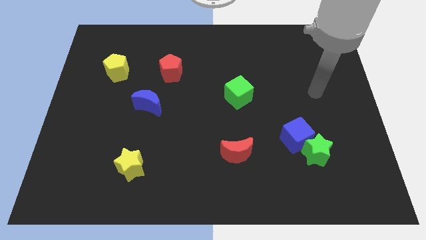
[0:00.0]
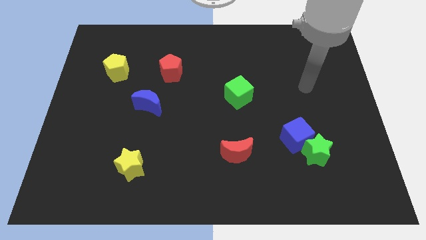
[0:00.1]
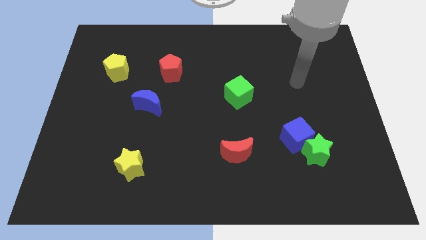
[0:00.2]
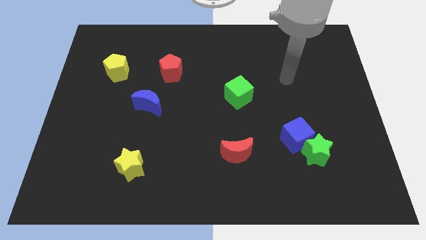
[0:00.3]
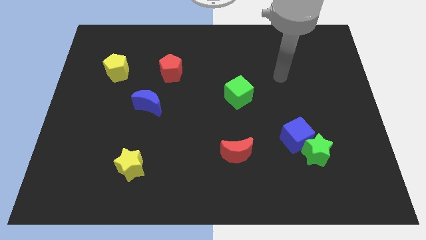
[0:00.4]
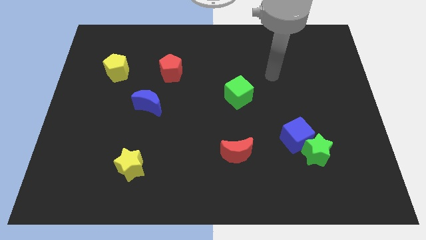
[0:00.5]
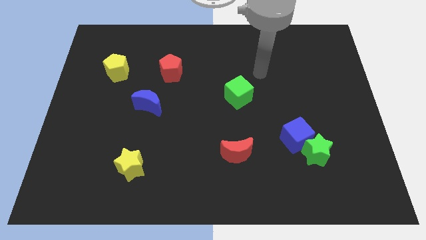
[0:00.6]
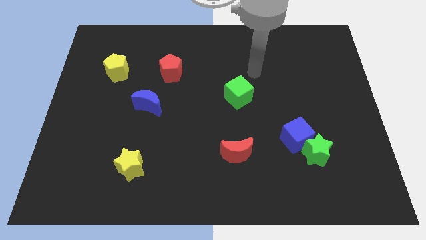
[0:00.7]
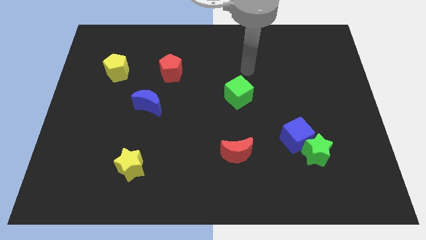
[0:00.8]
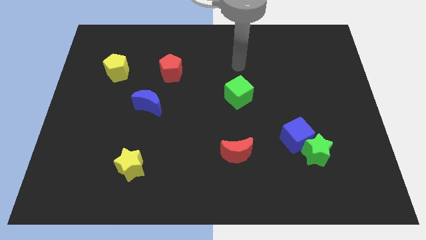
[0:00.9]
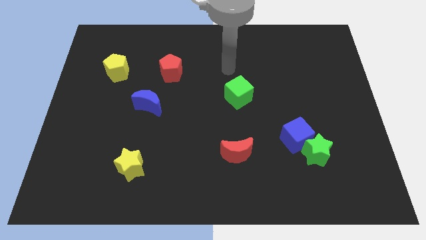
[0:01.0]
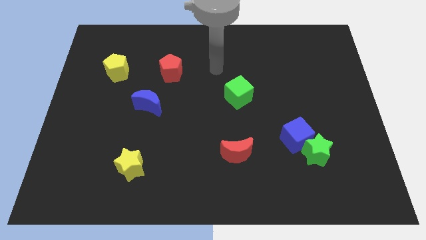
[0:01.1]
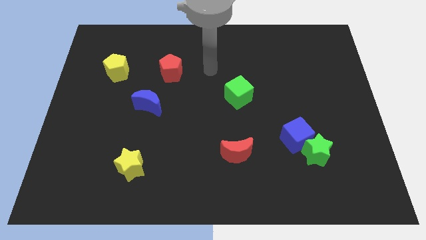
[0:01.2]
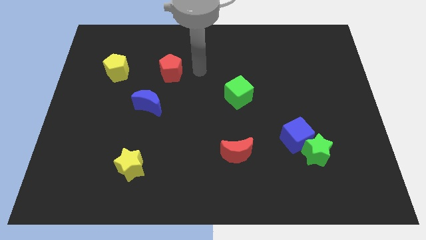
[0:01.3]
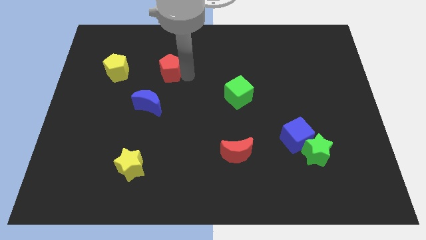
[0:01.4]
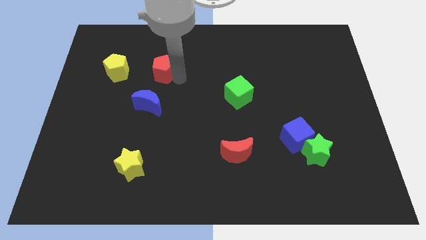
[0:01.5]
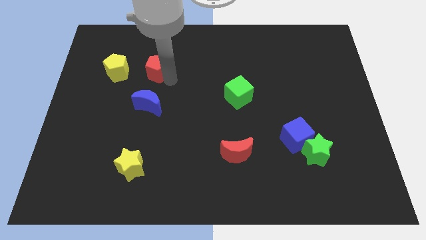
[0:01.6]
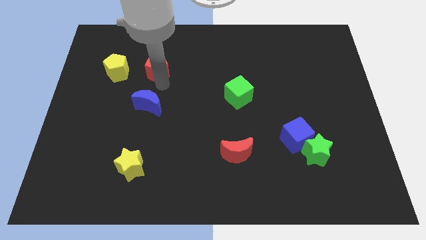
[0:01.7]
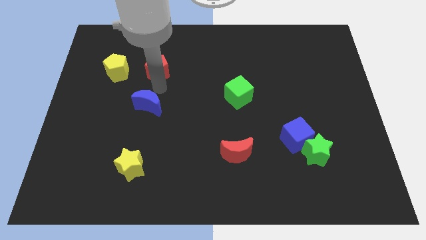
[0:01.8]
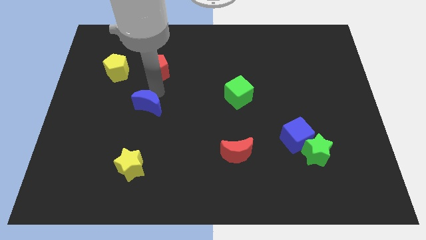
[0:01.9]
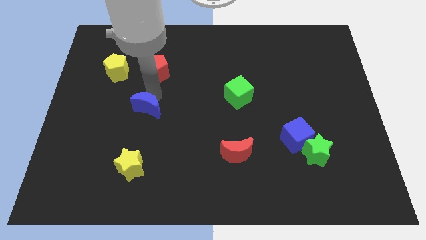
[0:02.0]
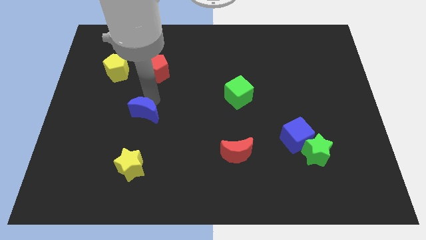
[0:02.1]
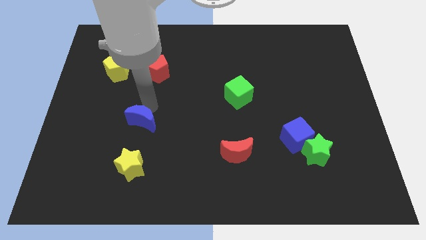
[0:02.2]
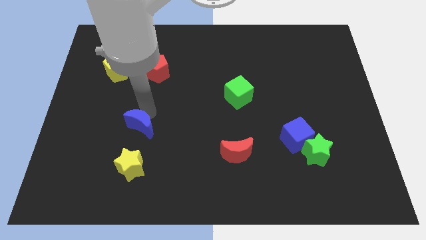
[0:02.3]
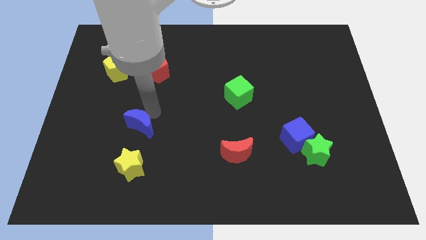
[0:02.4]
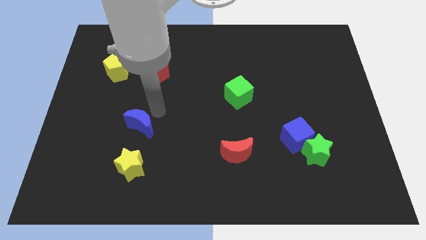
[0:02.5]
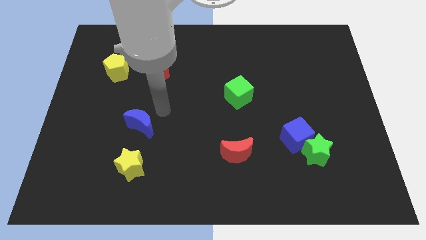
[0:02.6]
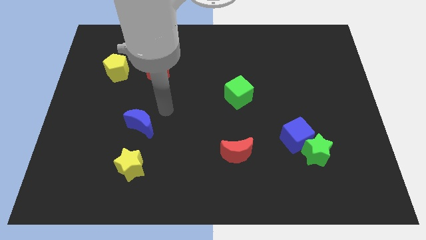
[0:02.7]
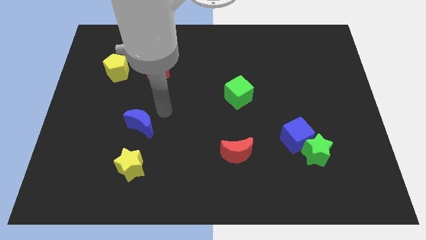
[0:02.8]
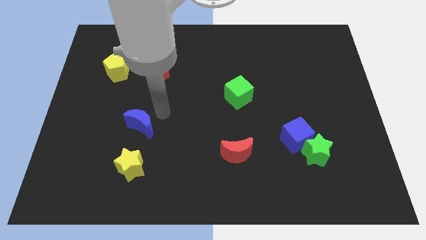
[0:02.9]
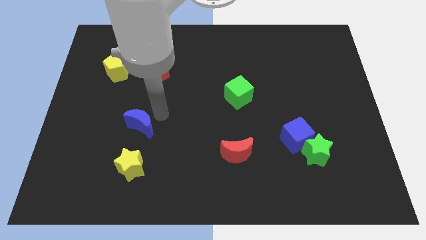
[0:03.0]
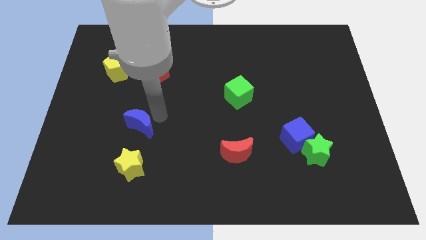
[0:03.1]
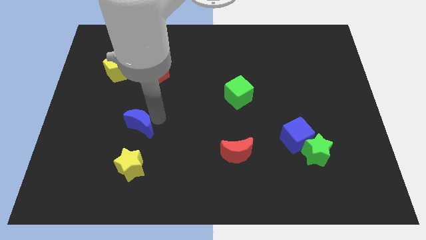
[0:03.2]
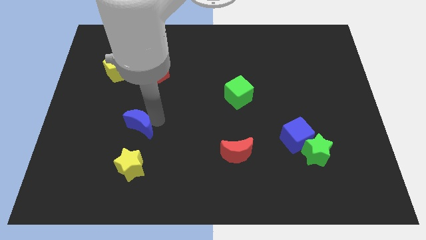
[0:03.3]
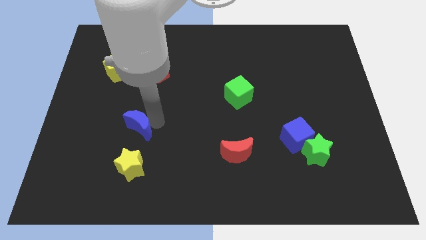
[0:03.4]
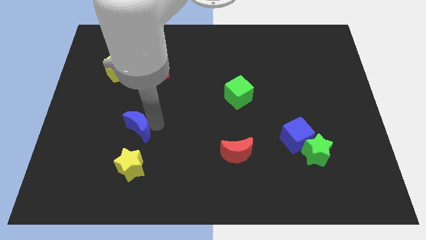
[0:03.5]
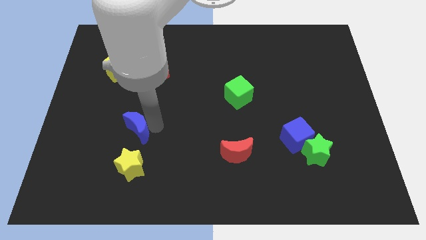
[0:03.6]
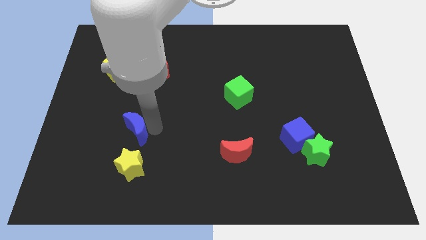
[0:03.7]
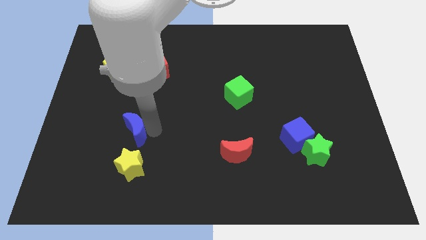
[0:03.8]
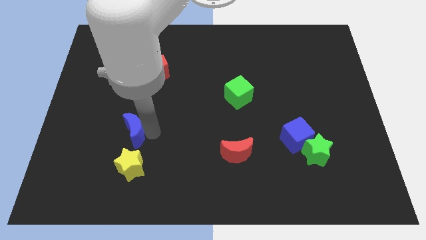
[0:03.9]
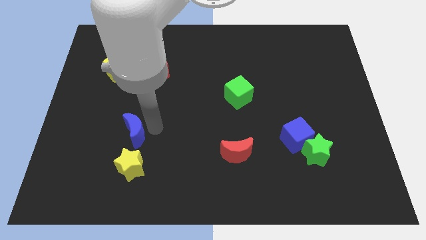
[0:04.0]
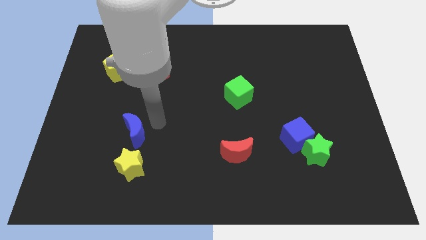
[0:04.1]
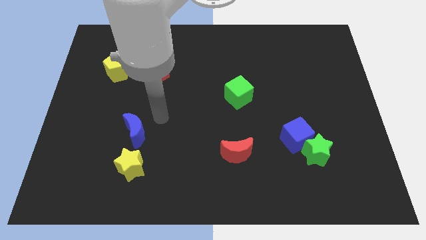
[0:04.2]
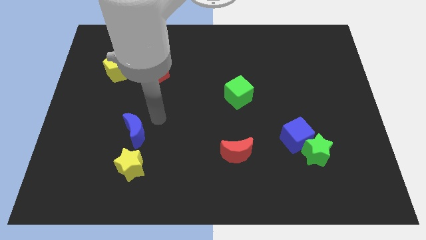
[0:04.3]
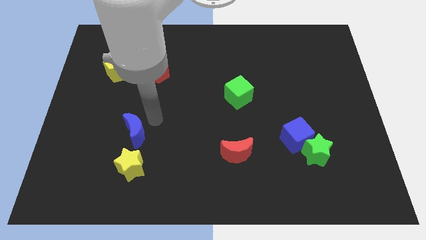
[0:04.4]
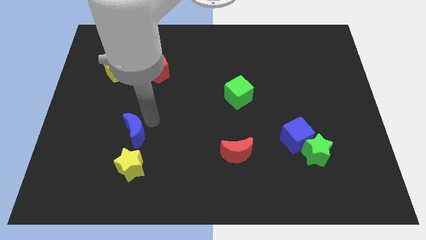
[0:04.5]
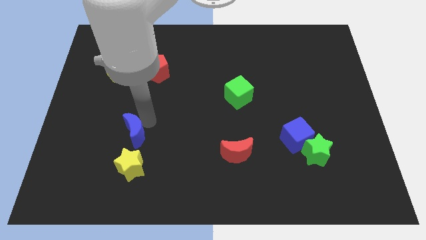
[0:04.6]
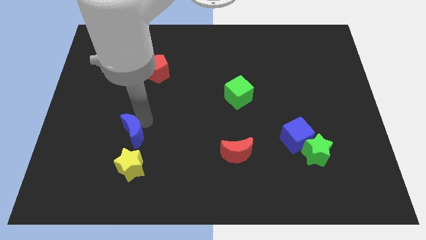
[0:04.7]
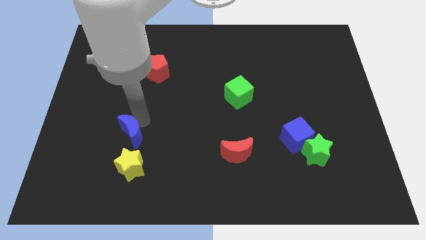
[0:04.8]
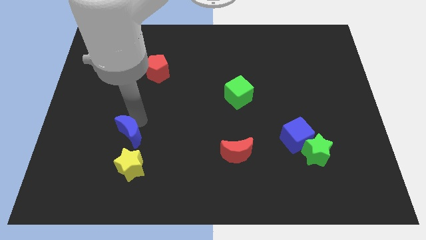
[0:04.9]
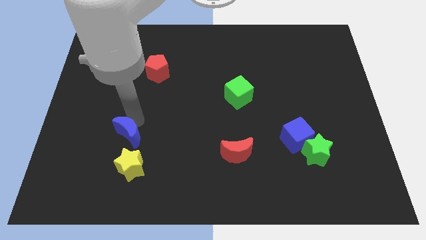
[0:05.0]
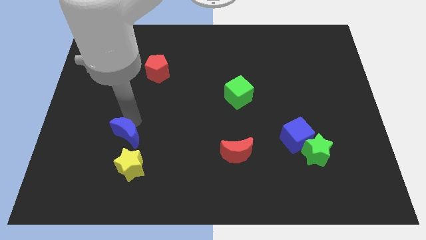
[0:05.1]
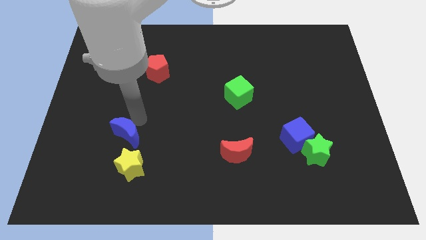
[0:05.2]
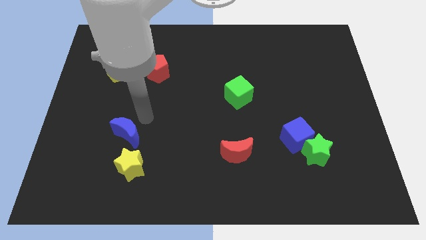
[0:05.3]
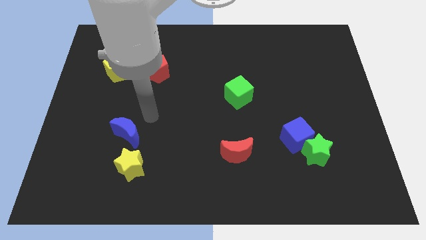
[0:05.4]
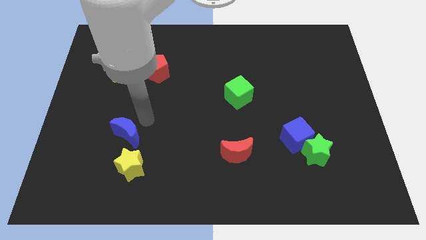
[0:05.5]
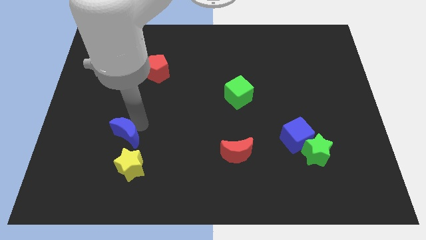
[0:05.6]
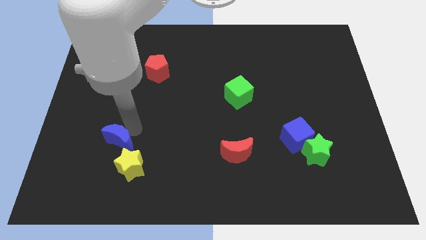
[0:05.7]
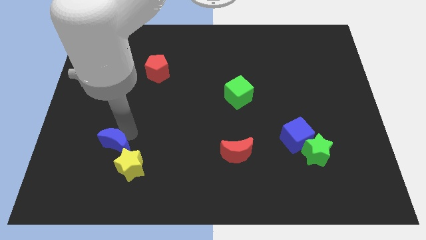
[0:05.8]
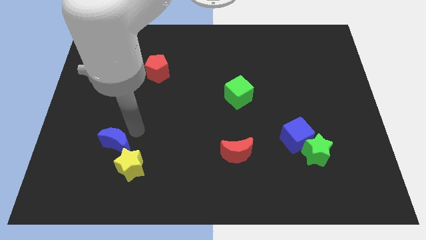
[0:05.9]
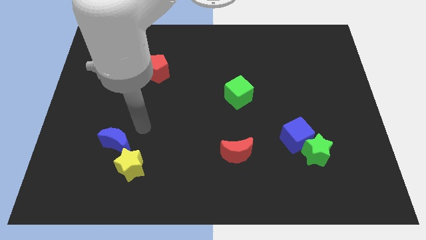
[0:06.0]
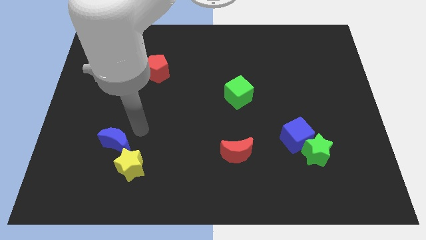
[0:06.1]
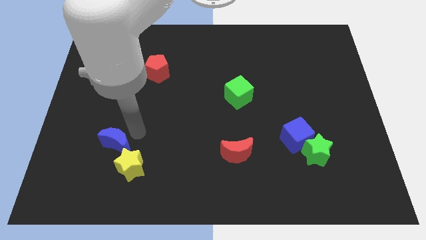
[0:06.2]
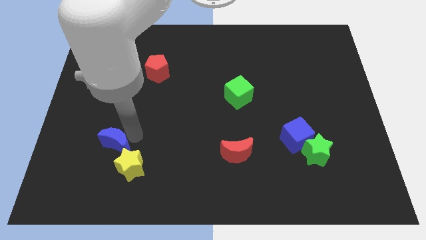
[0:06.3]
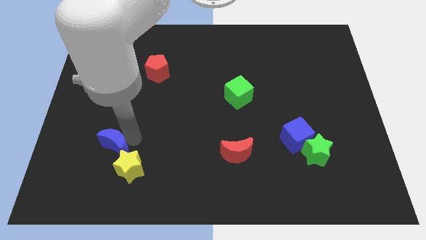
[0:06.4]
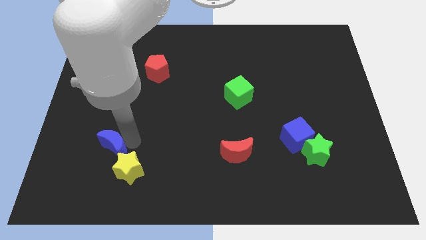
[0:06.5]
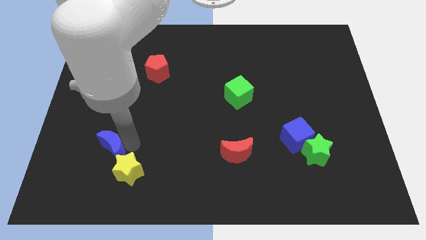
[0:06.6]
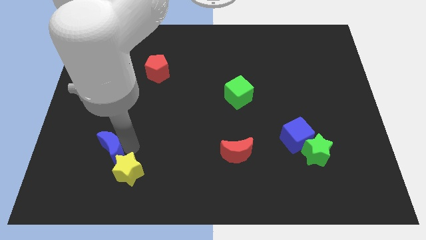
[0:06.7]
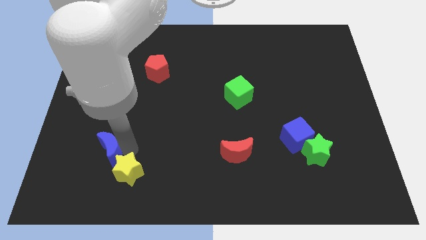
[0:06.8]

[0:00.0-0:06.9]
slide the blue moon left of the yellow star
